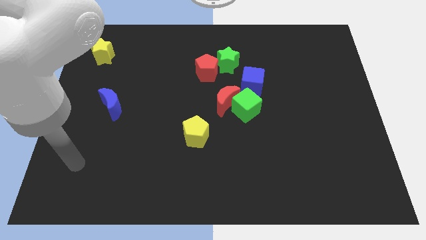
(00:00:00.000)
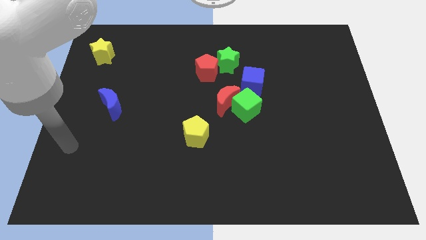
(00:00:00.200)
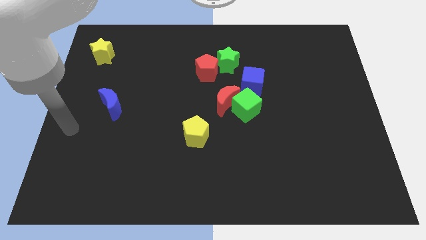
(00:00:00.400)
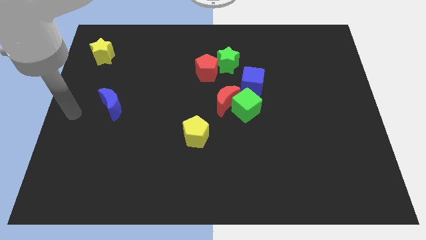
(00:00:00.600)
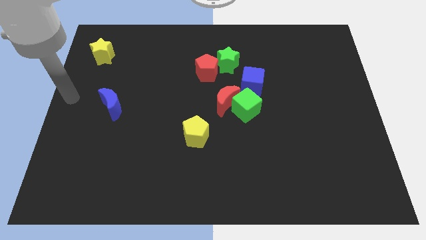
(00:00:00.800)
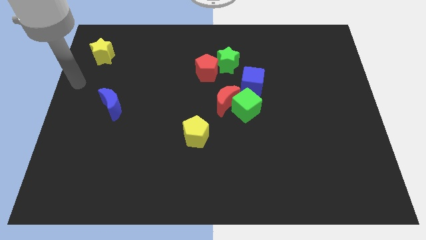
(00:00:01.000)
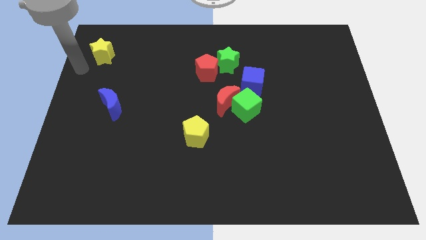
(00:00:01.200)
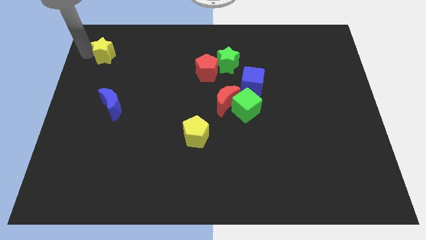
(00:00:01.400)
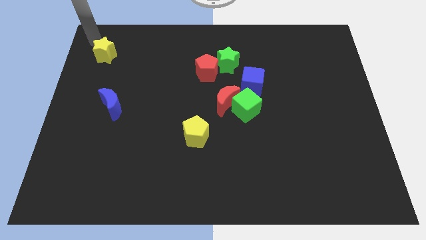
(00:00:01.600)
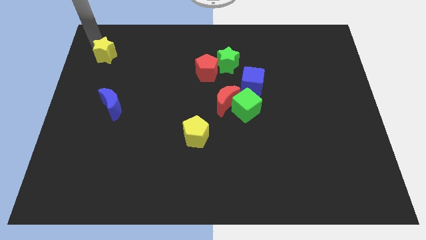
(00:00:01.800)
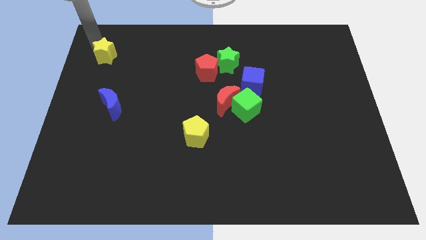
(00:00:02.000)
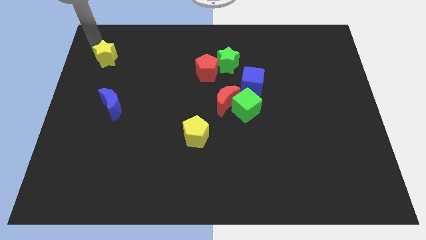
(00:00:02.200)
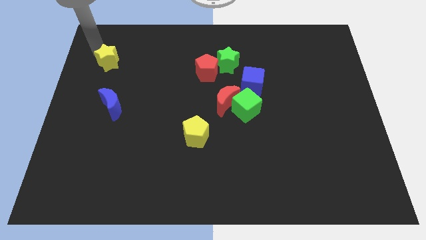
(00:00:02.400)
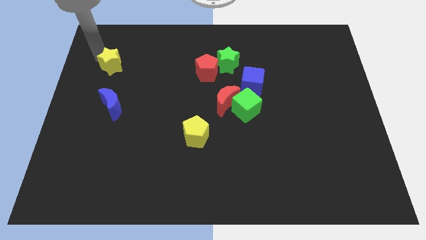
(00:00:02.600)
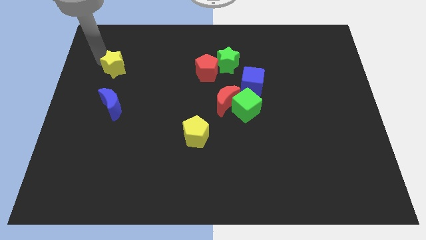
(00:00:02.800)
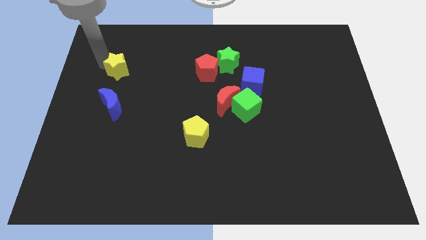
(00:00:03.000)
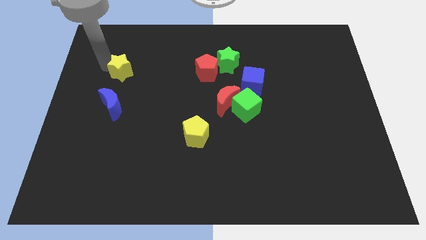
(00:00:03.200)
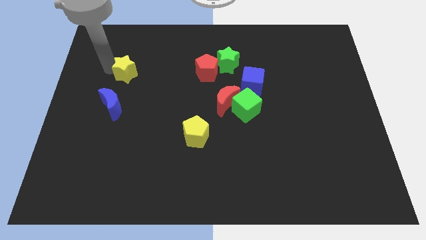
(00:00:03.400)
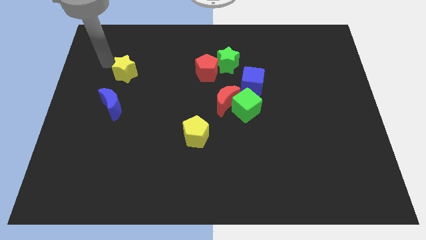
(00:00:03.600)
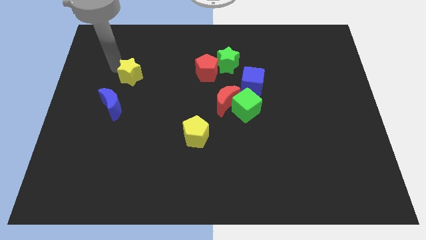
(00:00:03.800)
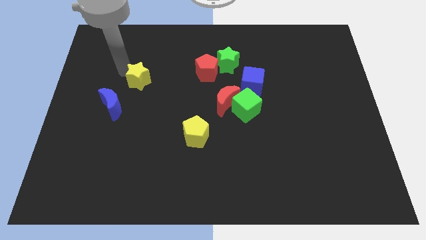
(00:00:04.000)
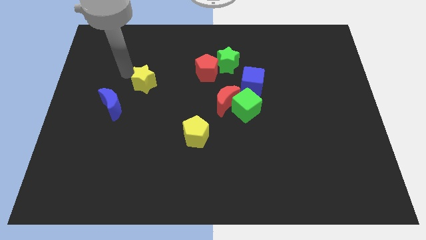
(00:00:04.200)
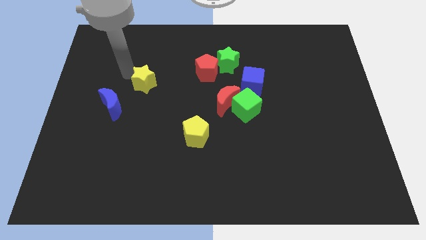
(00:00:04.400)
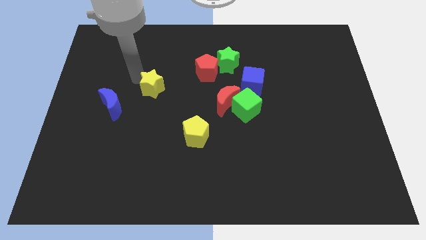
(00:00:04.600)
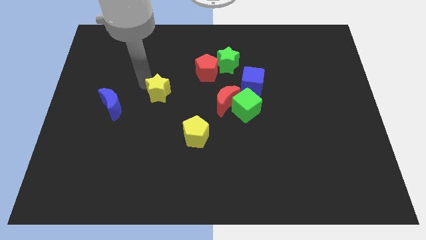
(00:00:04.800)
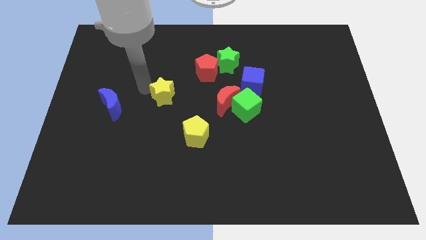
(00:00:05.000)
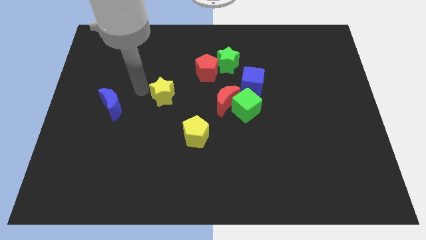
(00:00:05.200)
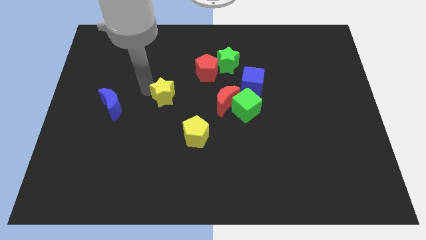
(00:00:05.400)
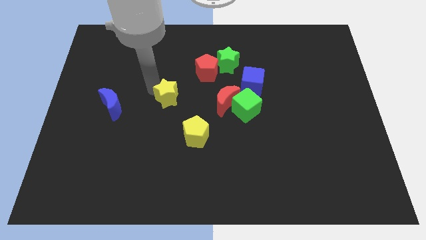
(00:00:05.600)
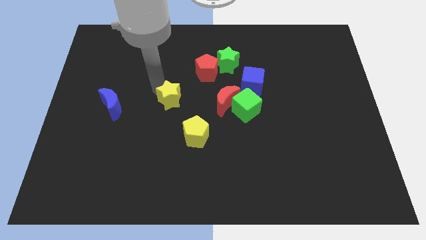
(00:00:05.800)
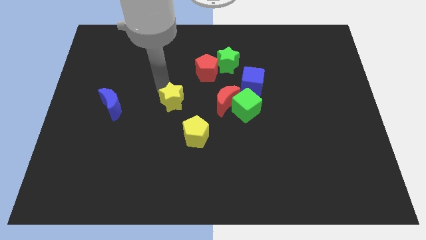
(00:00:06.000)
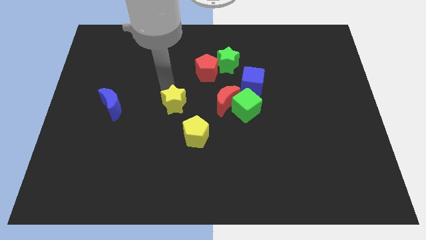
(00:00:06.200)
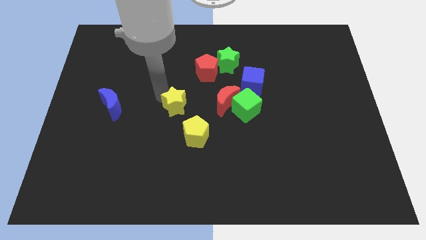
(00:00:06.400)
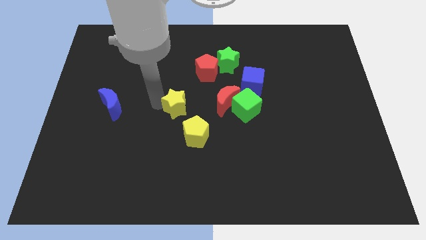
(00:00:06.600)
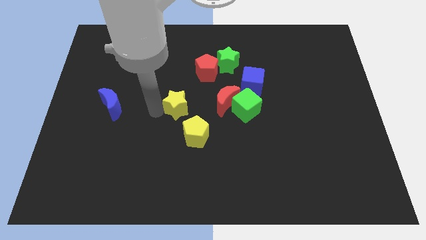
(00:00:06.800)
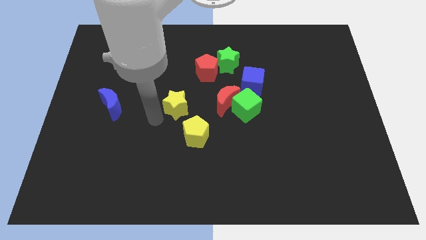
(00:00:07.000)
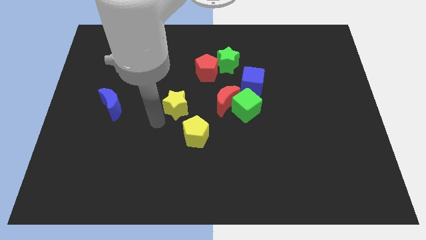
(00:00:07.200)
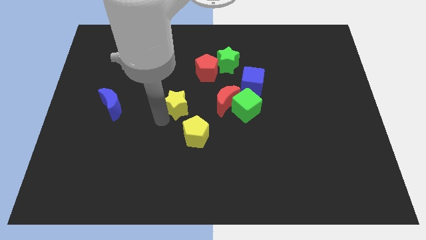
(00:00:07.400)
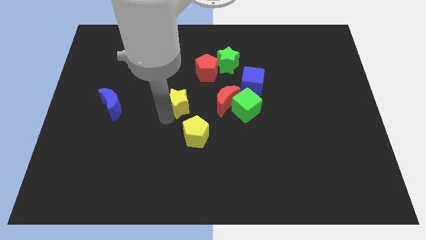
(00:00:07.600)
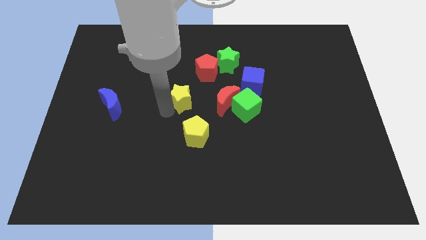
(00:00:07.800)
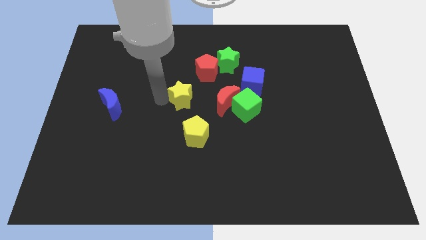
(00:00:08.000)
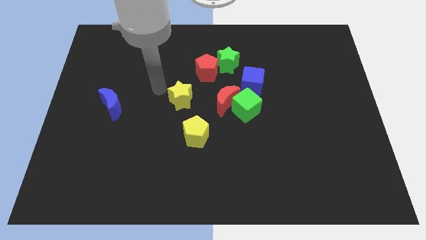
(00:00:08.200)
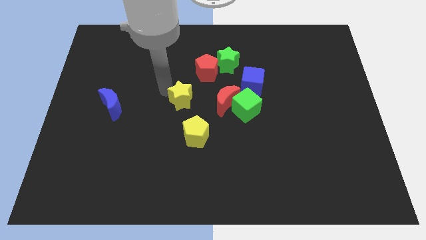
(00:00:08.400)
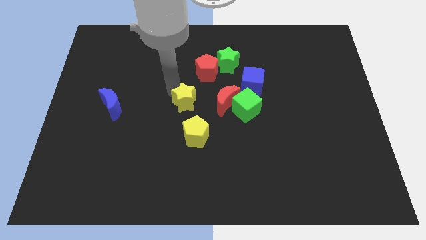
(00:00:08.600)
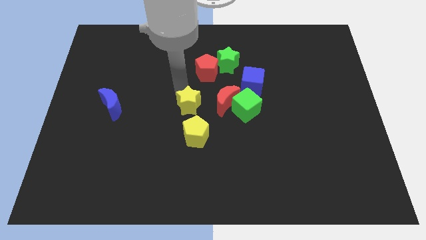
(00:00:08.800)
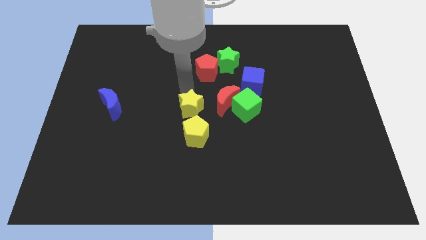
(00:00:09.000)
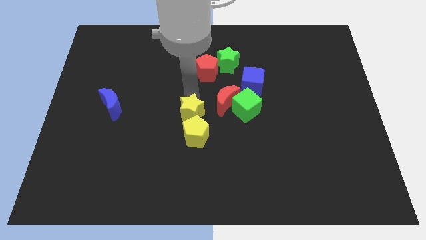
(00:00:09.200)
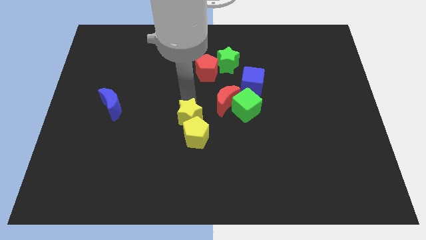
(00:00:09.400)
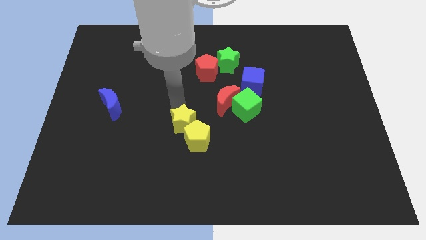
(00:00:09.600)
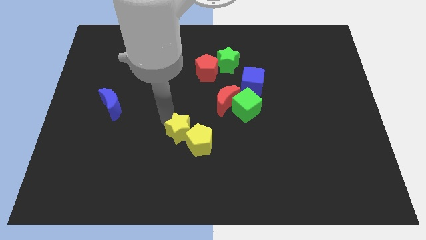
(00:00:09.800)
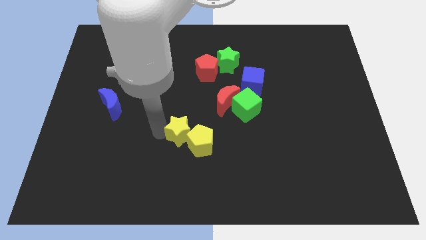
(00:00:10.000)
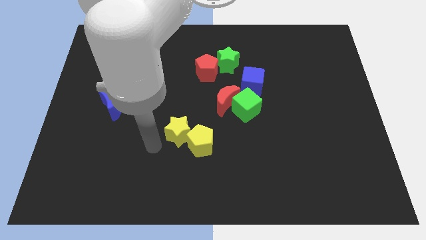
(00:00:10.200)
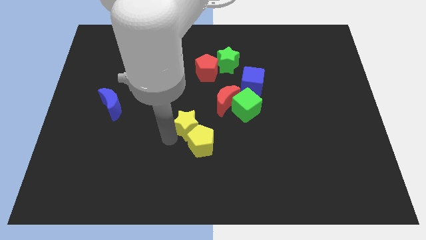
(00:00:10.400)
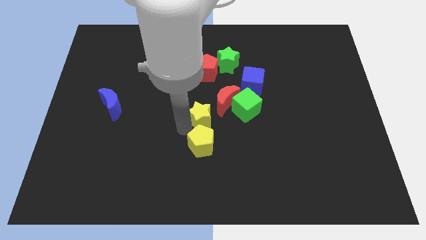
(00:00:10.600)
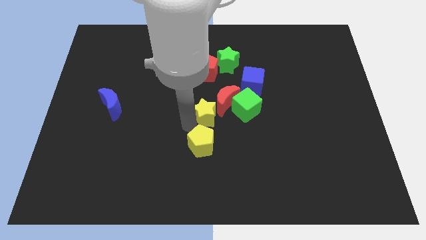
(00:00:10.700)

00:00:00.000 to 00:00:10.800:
slide the yellow star close to the red moon

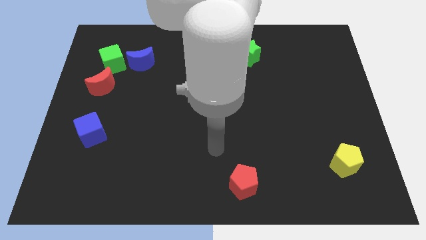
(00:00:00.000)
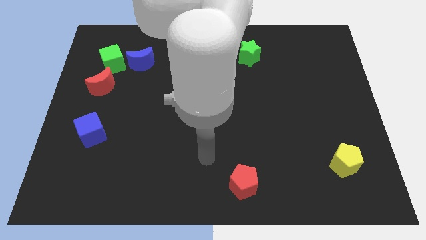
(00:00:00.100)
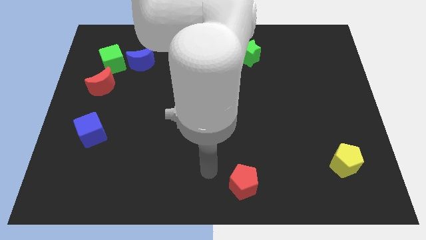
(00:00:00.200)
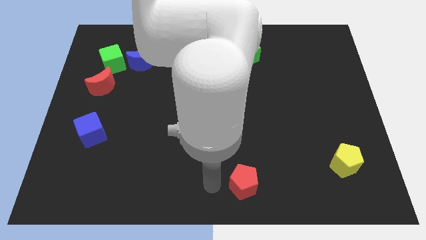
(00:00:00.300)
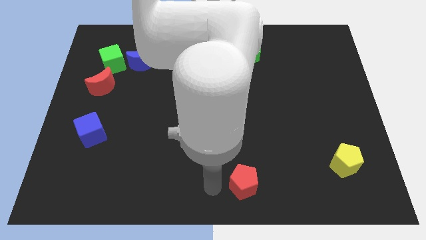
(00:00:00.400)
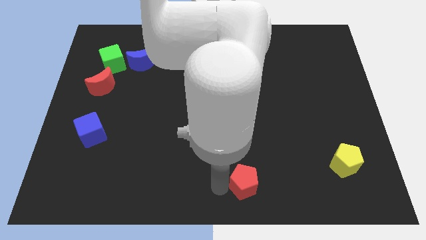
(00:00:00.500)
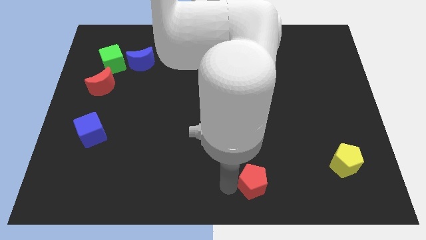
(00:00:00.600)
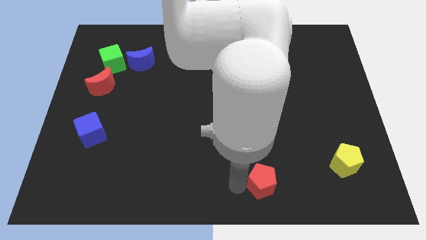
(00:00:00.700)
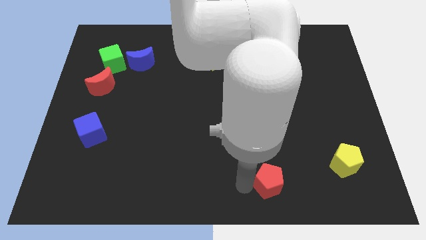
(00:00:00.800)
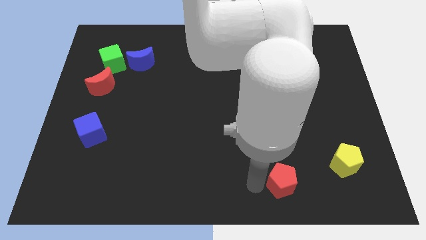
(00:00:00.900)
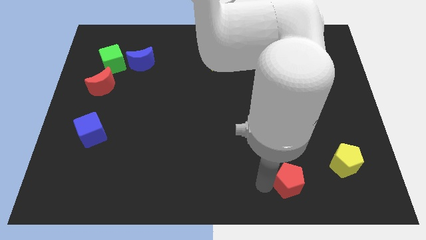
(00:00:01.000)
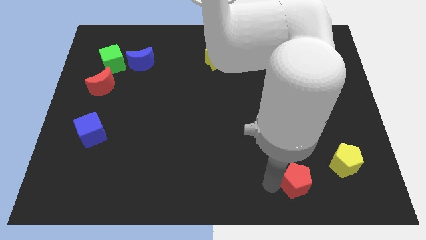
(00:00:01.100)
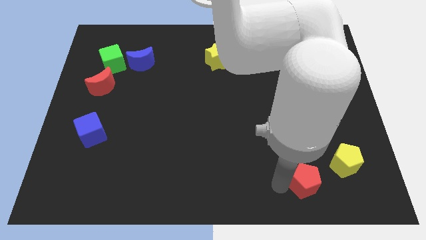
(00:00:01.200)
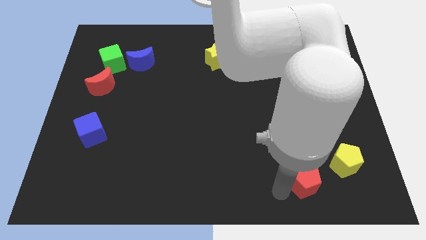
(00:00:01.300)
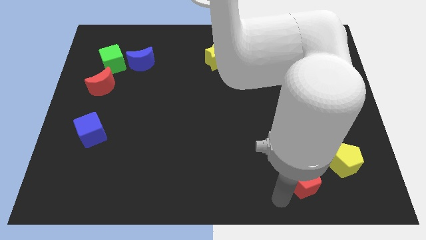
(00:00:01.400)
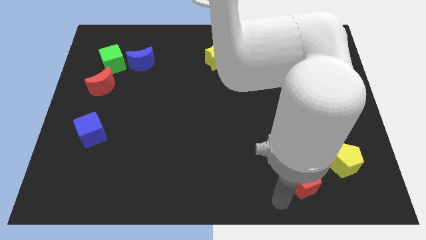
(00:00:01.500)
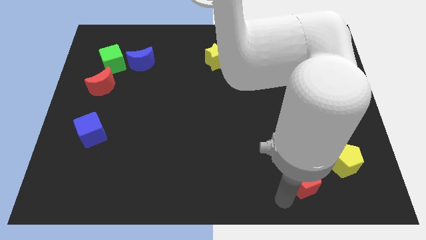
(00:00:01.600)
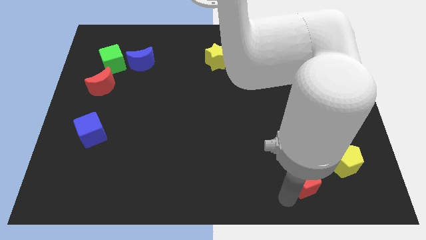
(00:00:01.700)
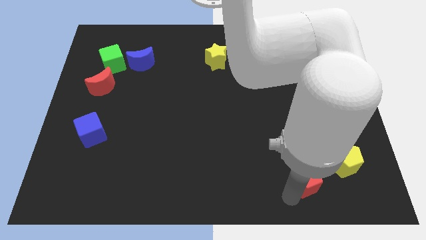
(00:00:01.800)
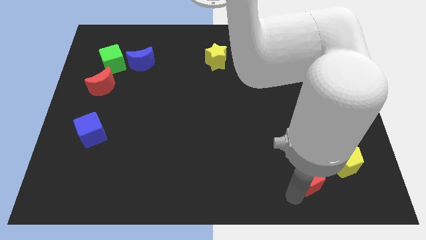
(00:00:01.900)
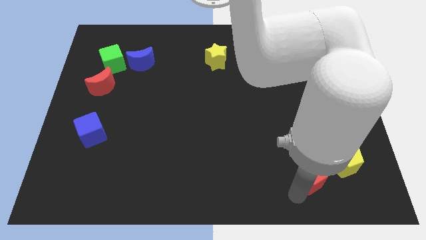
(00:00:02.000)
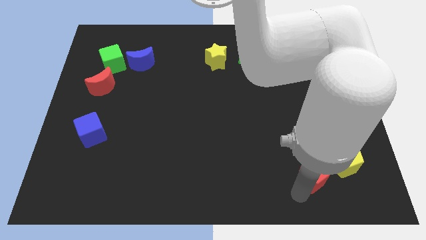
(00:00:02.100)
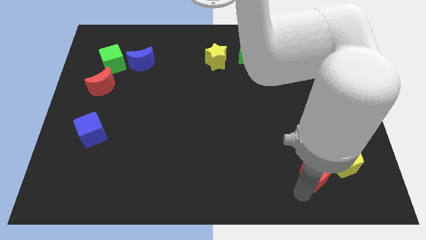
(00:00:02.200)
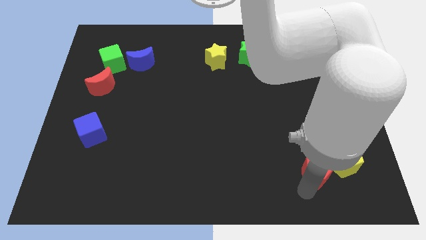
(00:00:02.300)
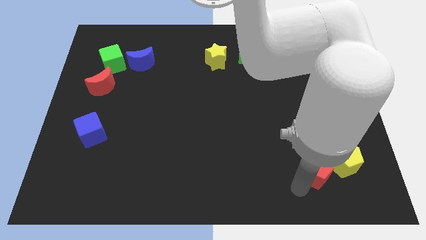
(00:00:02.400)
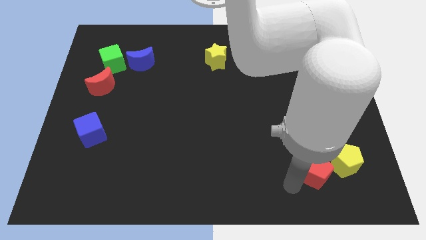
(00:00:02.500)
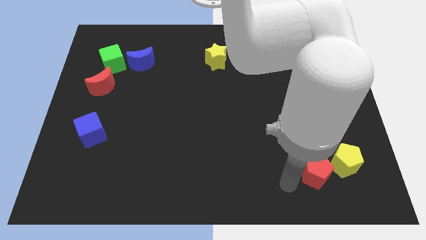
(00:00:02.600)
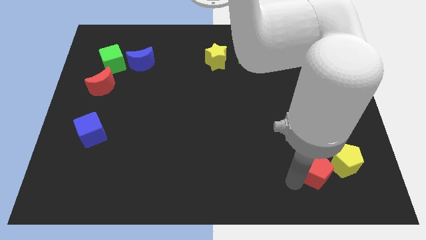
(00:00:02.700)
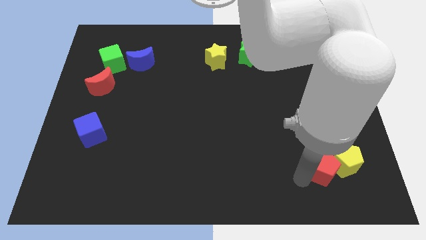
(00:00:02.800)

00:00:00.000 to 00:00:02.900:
put the red pentagon next to the yellow pentagon
